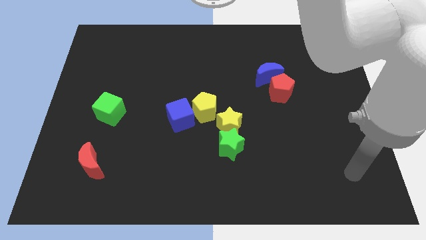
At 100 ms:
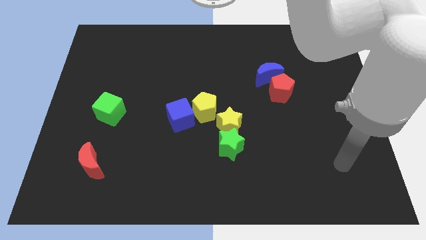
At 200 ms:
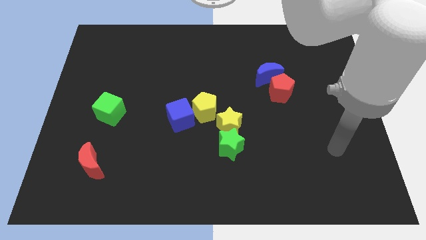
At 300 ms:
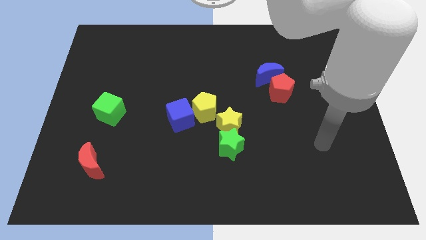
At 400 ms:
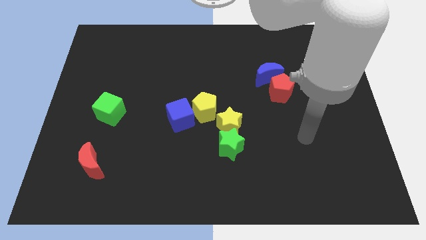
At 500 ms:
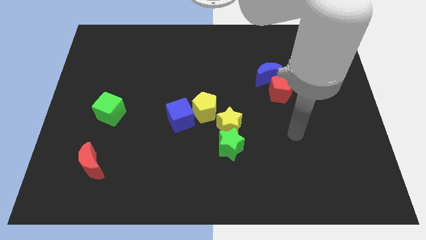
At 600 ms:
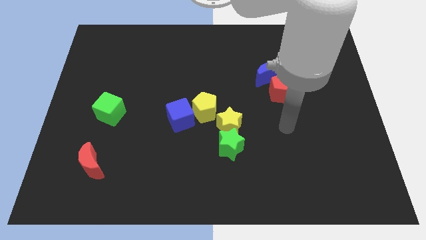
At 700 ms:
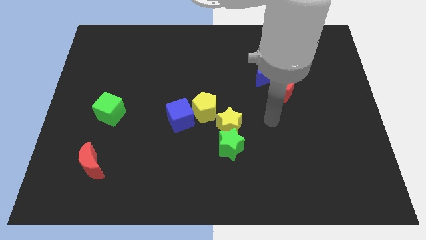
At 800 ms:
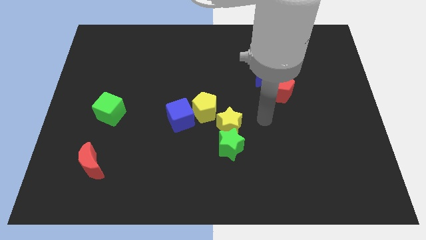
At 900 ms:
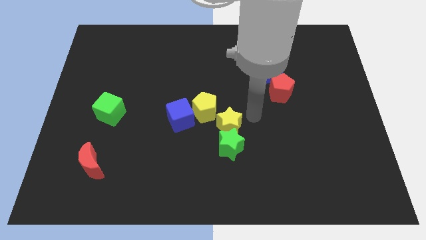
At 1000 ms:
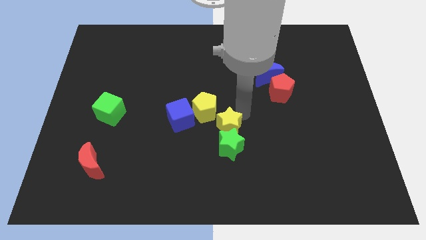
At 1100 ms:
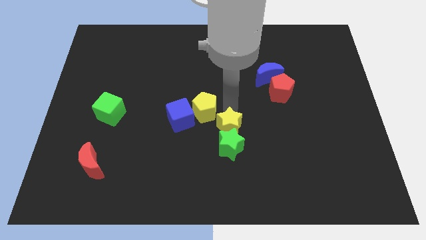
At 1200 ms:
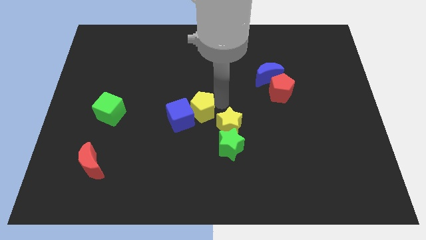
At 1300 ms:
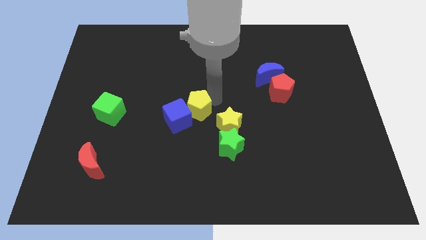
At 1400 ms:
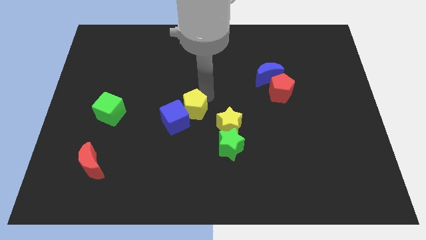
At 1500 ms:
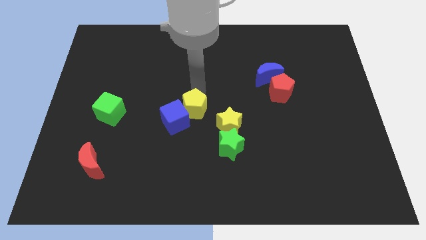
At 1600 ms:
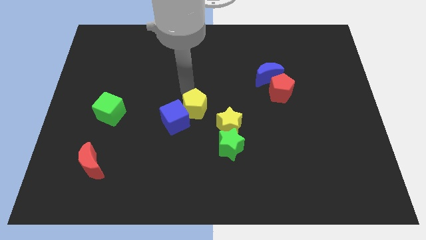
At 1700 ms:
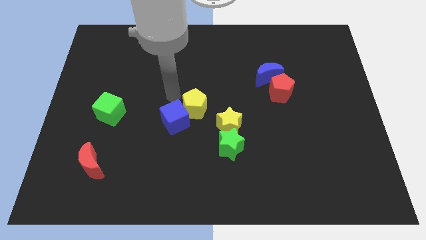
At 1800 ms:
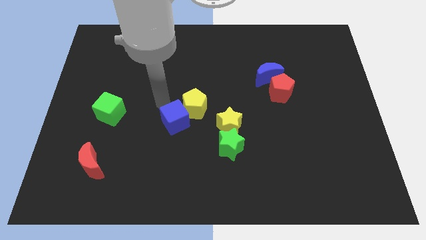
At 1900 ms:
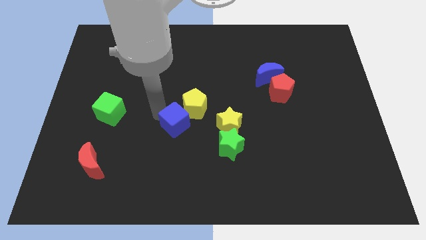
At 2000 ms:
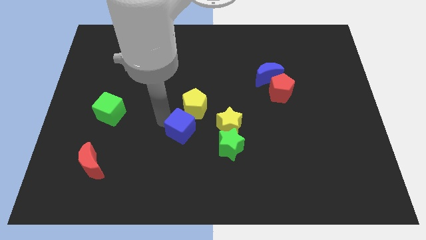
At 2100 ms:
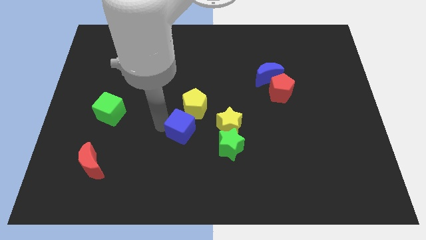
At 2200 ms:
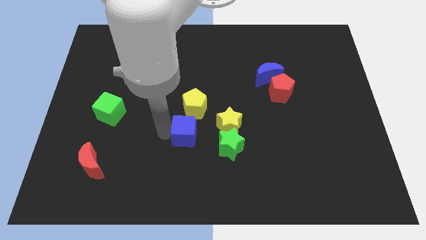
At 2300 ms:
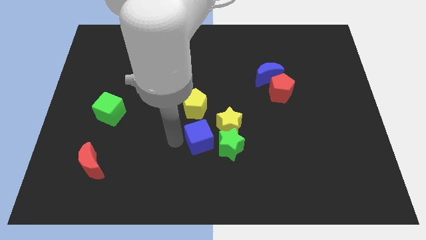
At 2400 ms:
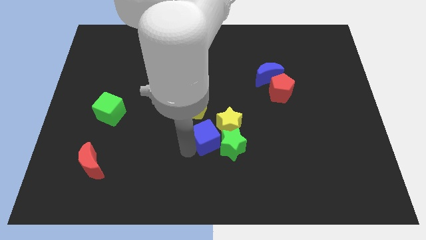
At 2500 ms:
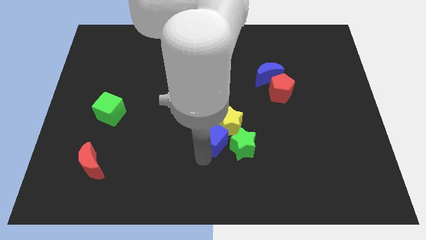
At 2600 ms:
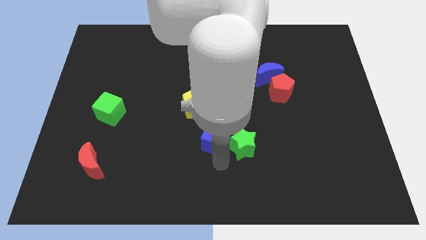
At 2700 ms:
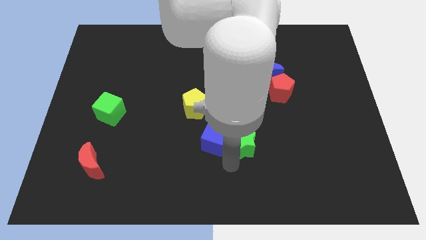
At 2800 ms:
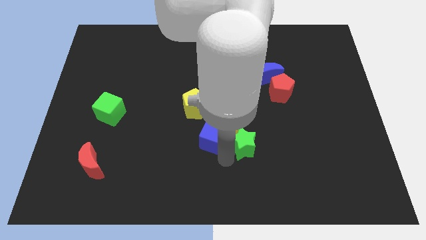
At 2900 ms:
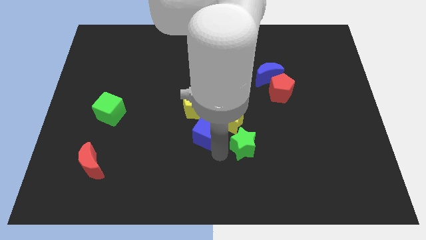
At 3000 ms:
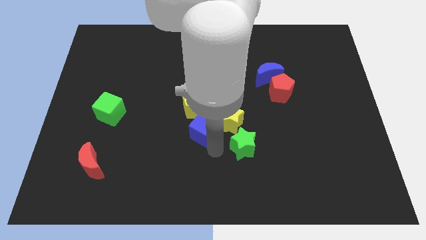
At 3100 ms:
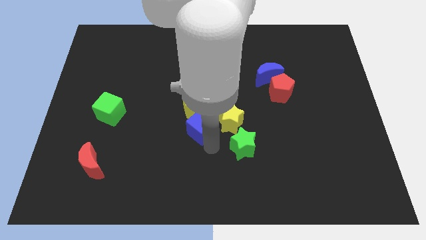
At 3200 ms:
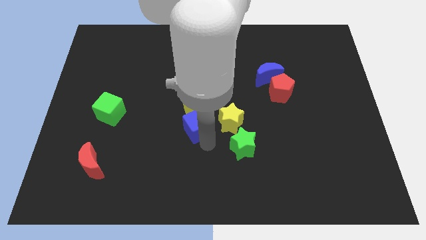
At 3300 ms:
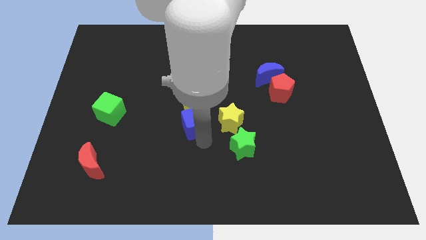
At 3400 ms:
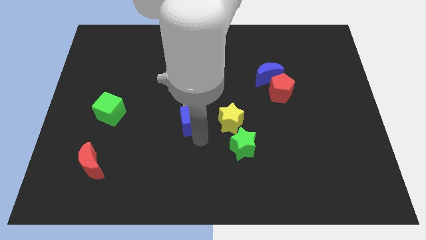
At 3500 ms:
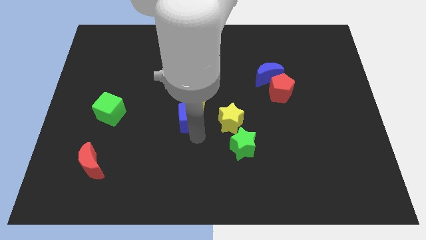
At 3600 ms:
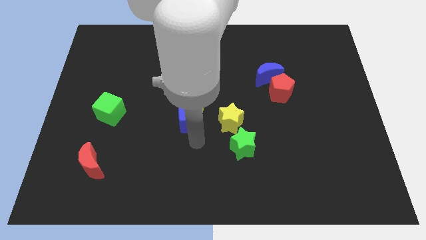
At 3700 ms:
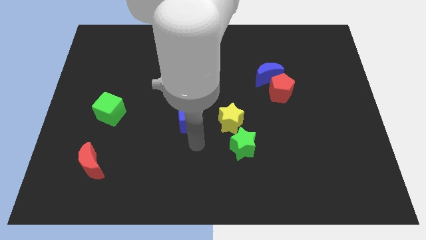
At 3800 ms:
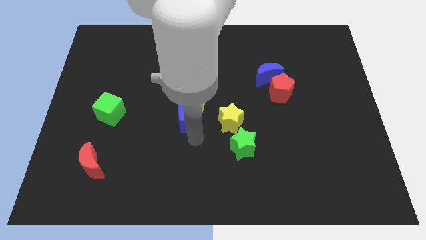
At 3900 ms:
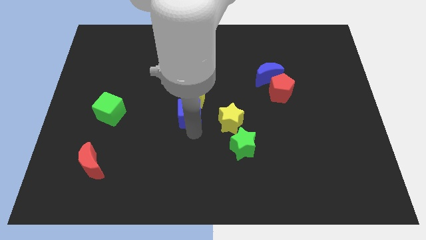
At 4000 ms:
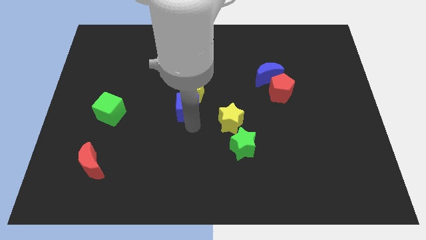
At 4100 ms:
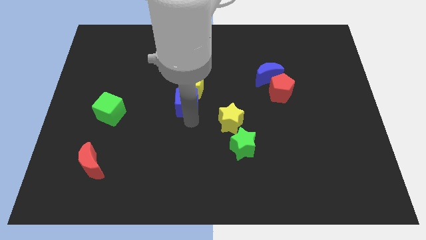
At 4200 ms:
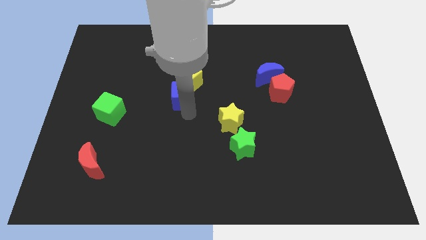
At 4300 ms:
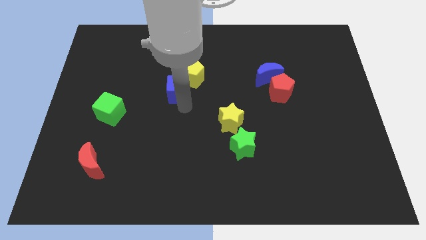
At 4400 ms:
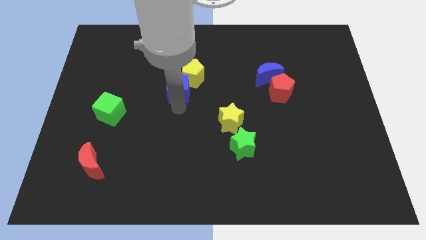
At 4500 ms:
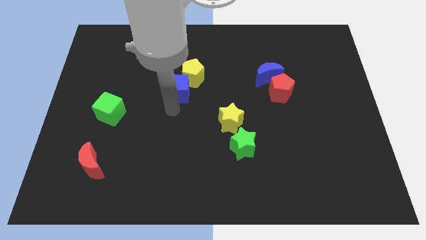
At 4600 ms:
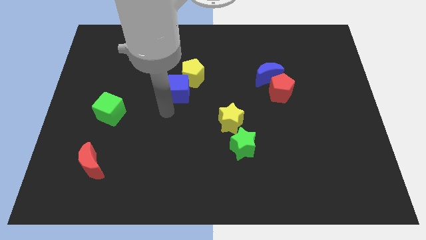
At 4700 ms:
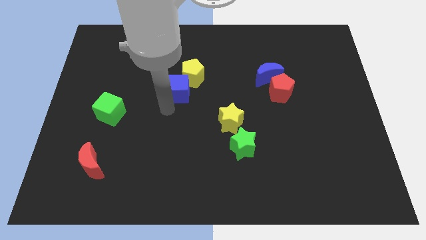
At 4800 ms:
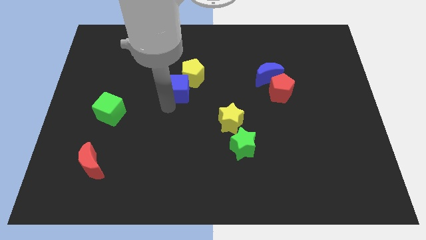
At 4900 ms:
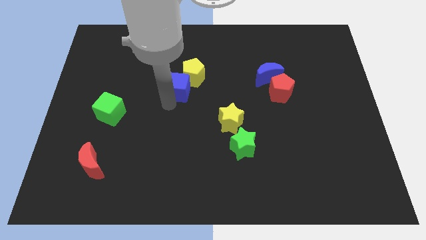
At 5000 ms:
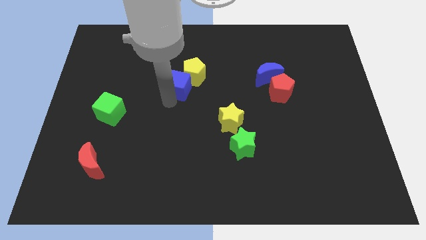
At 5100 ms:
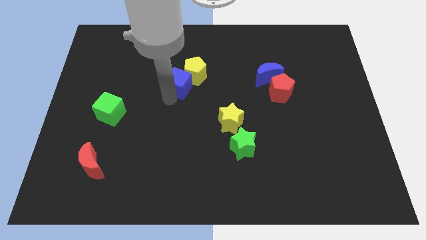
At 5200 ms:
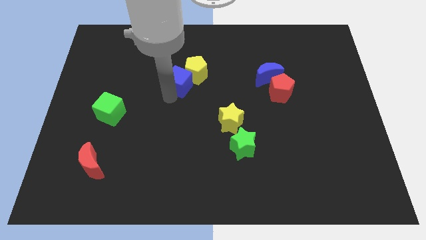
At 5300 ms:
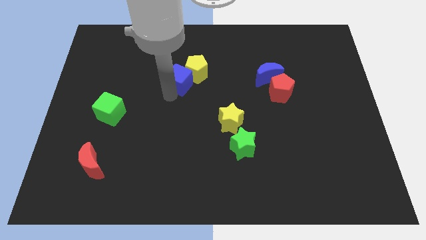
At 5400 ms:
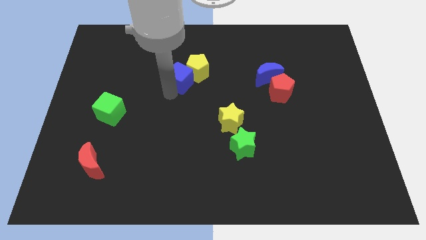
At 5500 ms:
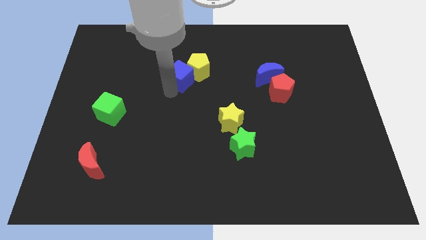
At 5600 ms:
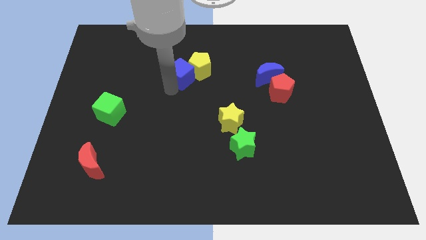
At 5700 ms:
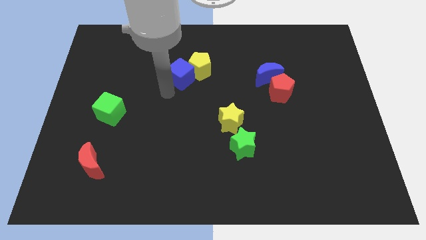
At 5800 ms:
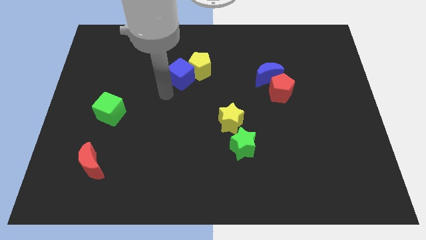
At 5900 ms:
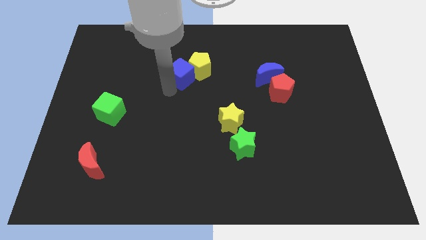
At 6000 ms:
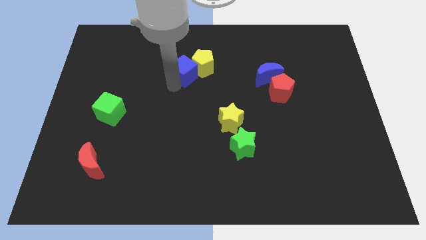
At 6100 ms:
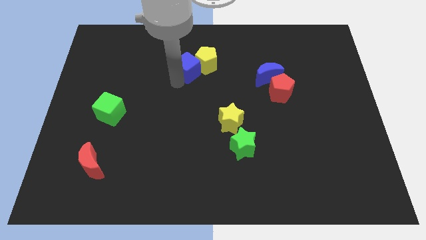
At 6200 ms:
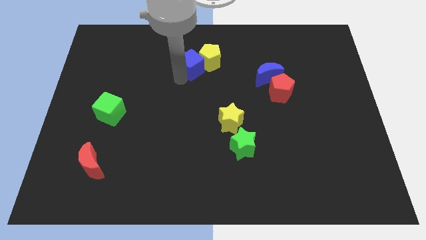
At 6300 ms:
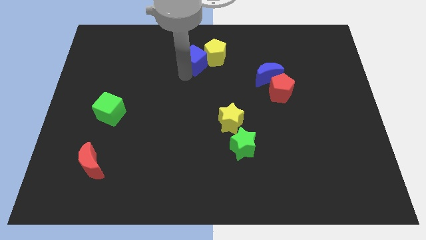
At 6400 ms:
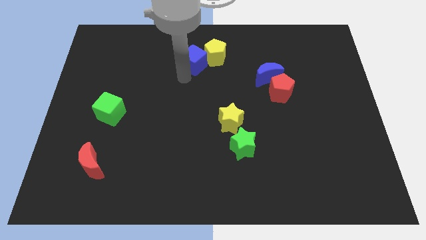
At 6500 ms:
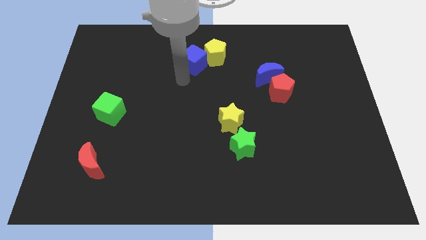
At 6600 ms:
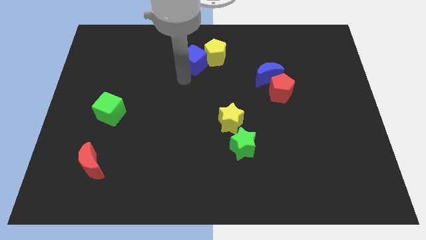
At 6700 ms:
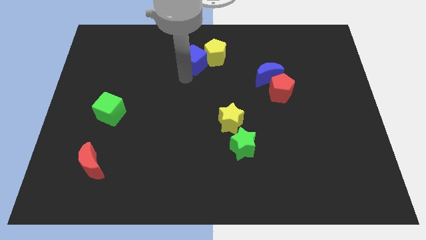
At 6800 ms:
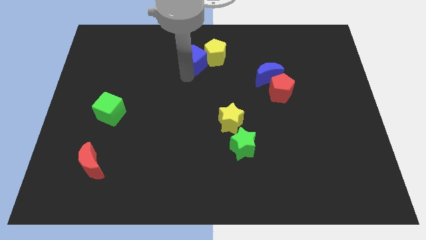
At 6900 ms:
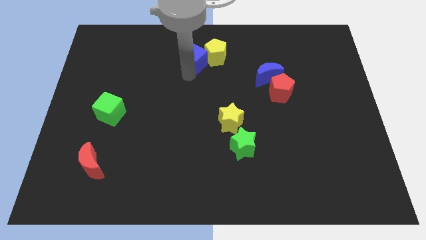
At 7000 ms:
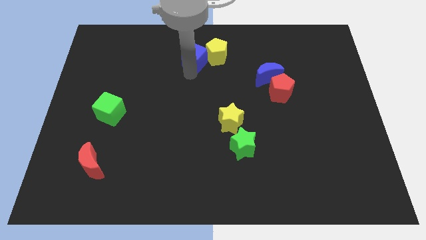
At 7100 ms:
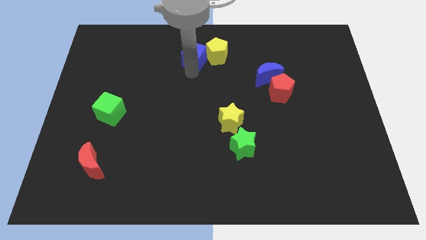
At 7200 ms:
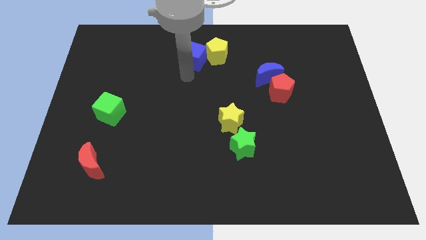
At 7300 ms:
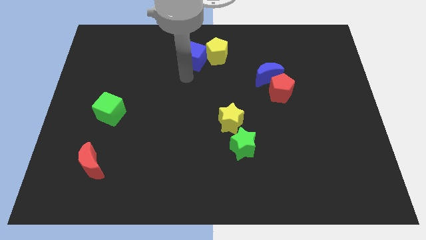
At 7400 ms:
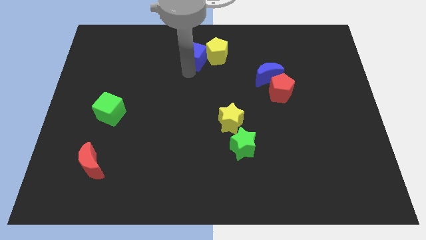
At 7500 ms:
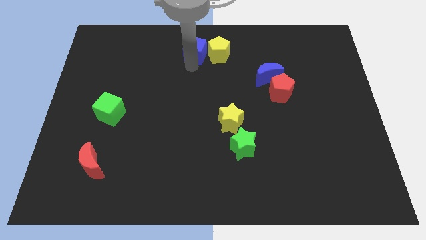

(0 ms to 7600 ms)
push the blue cube to the top
